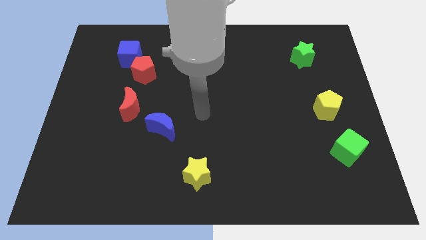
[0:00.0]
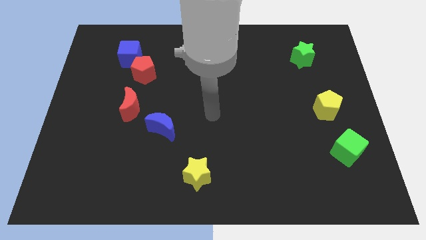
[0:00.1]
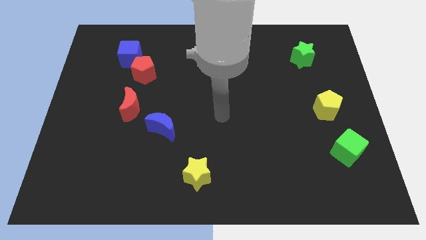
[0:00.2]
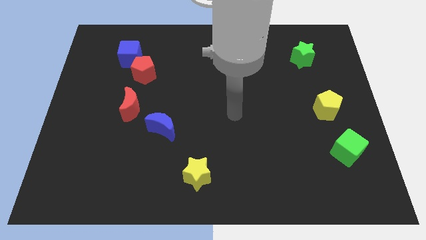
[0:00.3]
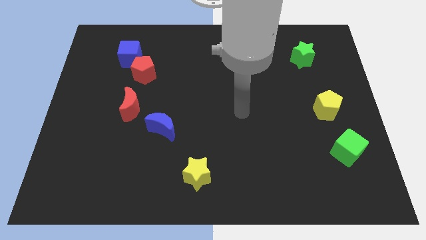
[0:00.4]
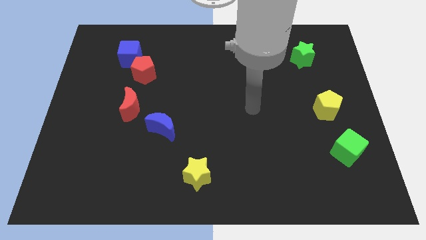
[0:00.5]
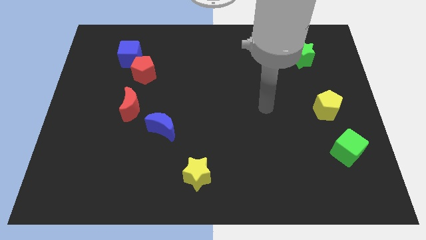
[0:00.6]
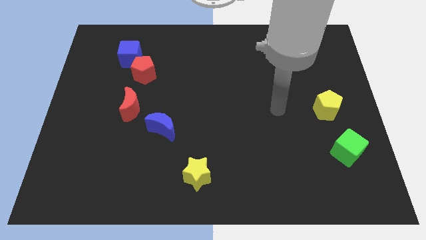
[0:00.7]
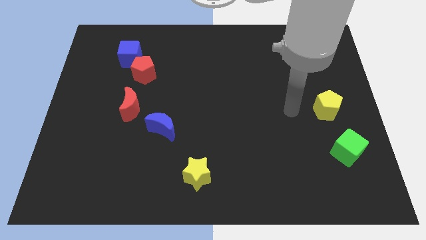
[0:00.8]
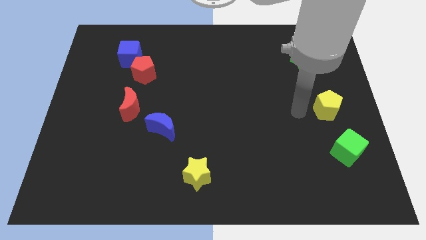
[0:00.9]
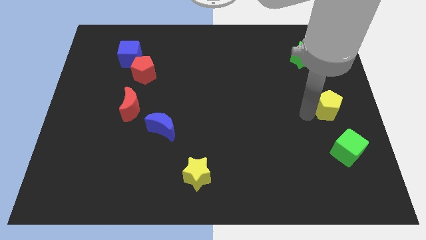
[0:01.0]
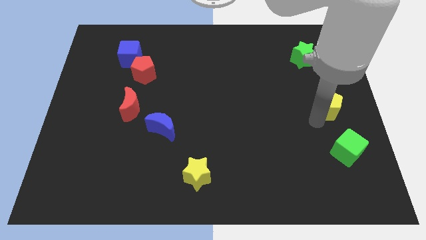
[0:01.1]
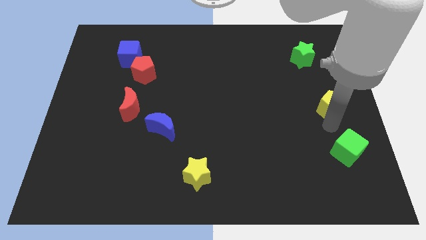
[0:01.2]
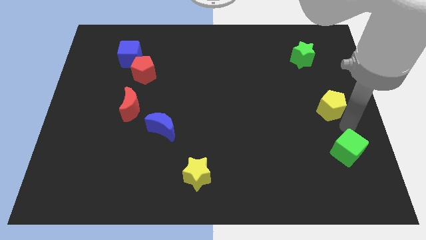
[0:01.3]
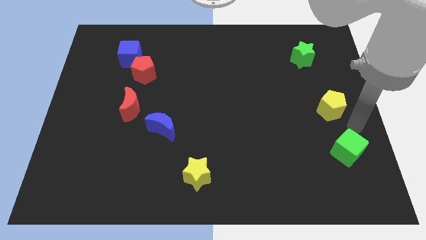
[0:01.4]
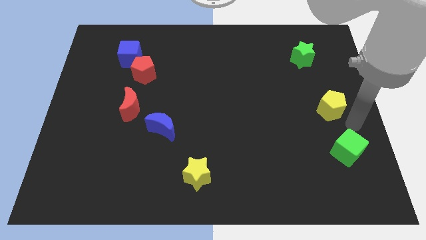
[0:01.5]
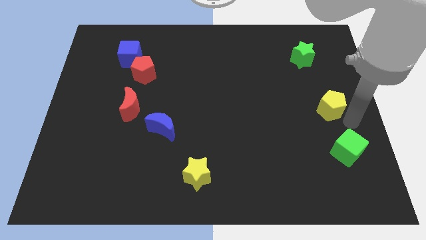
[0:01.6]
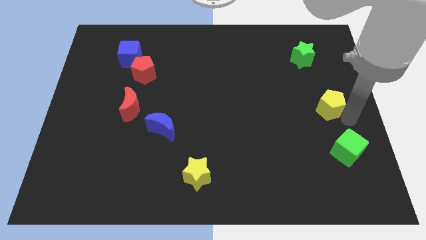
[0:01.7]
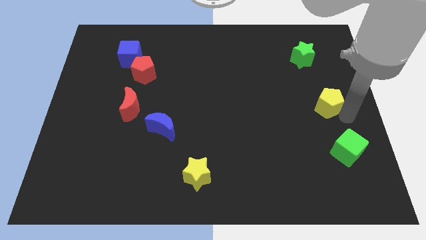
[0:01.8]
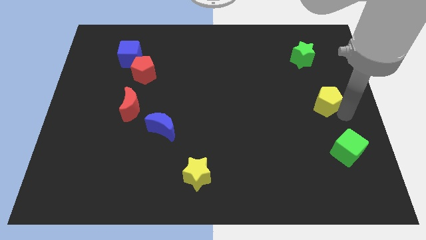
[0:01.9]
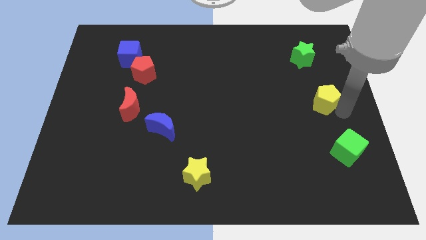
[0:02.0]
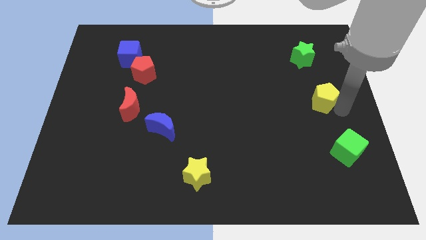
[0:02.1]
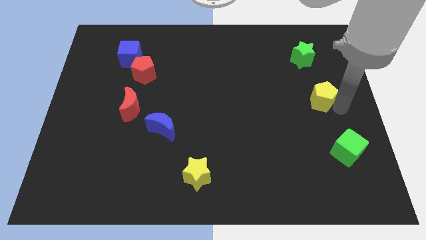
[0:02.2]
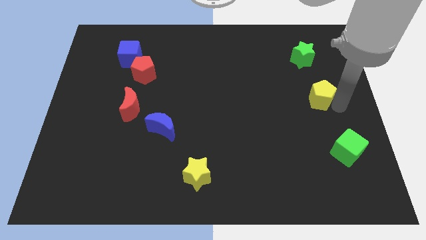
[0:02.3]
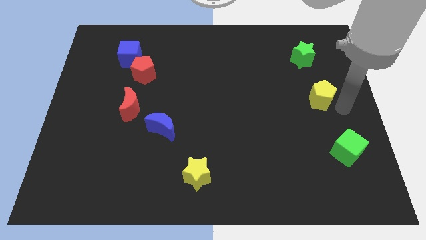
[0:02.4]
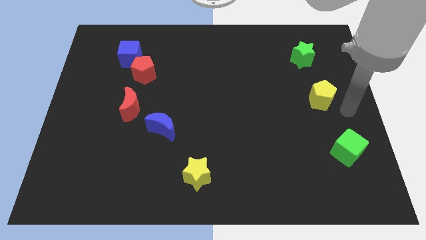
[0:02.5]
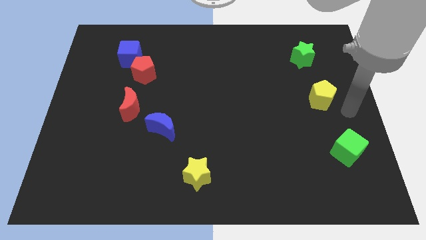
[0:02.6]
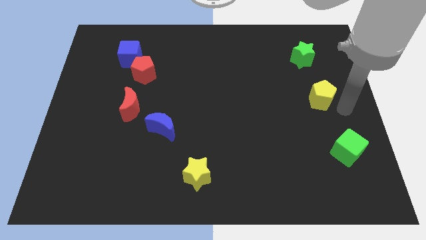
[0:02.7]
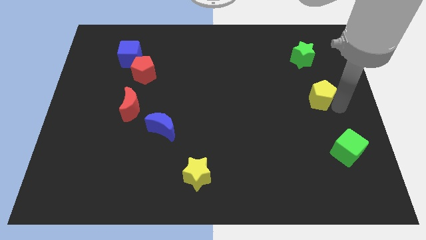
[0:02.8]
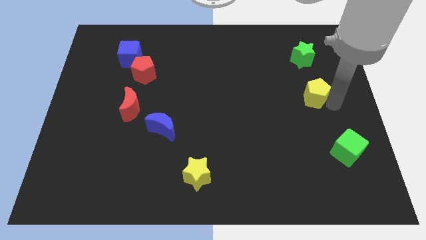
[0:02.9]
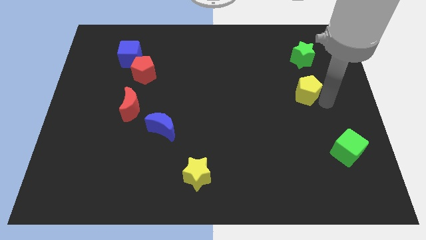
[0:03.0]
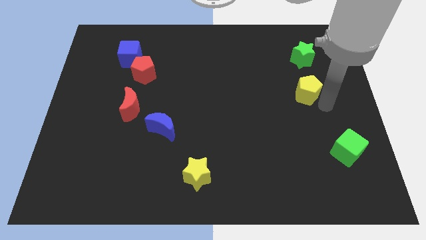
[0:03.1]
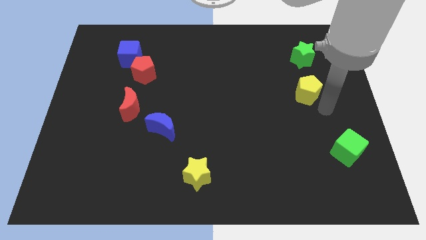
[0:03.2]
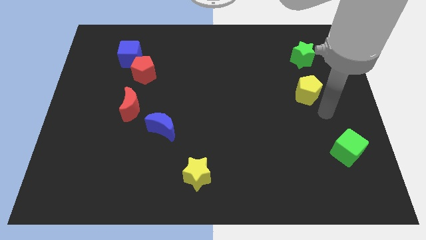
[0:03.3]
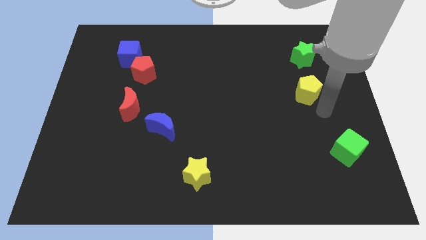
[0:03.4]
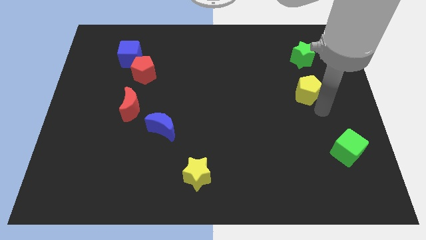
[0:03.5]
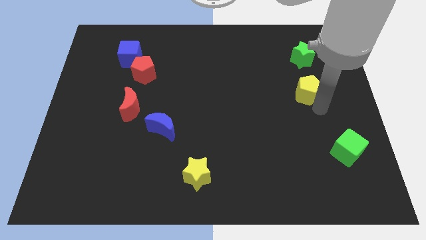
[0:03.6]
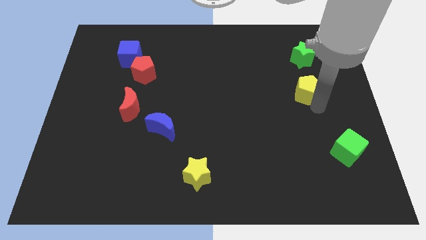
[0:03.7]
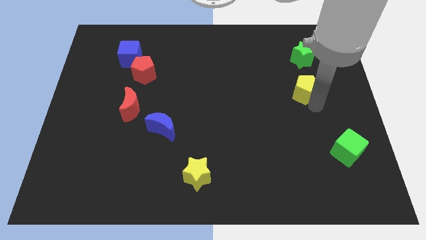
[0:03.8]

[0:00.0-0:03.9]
push the yellow pentagon up and to the left a little

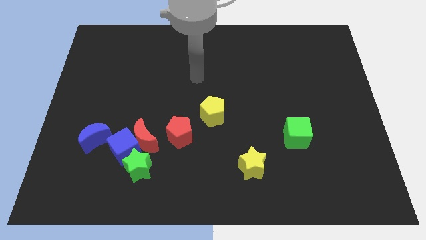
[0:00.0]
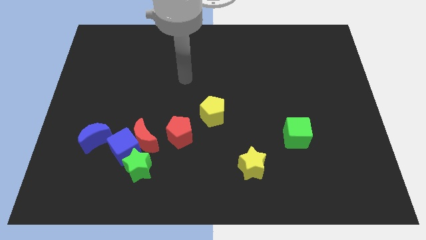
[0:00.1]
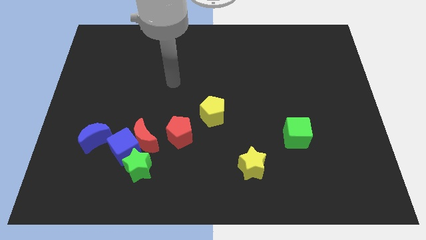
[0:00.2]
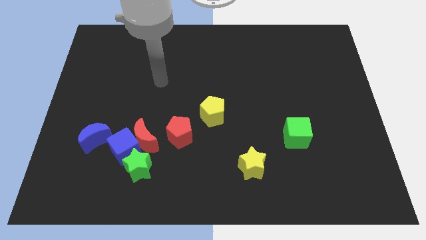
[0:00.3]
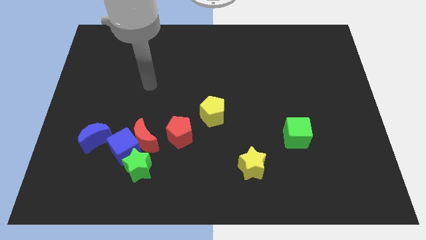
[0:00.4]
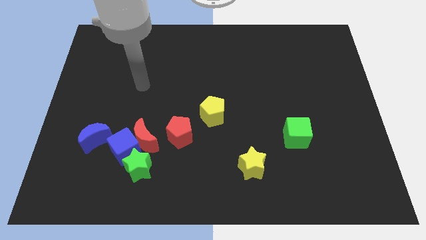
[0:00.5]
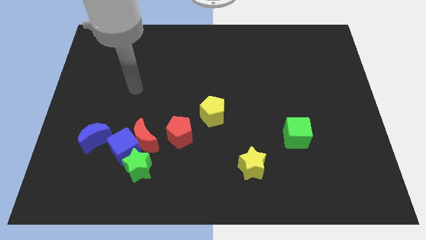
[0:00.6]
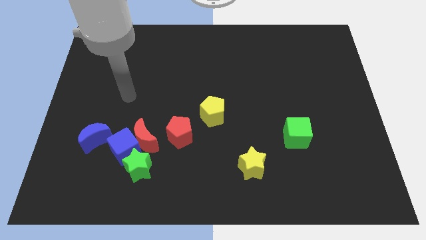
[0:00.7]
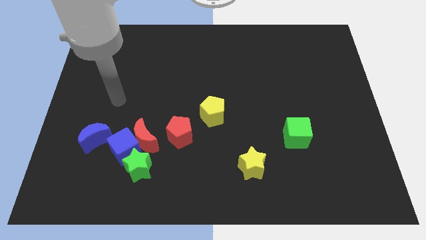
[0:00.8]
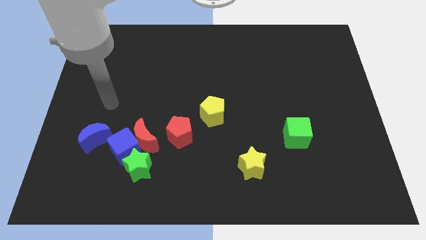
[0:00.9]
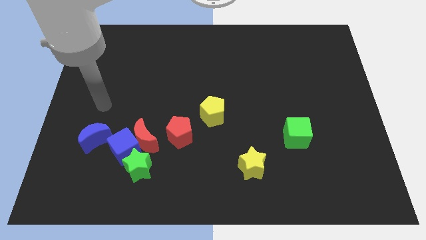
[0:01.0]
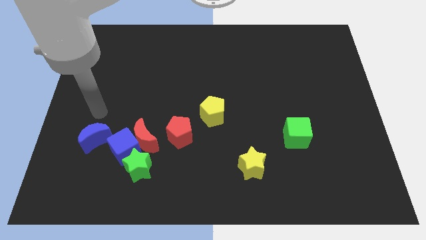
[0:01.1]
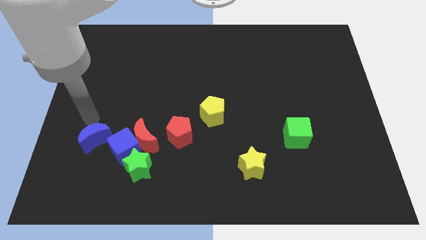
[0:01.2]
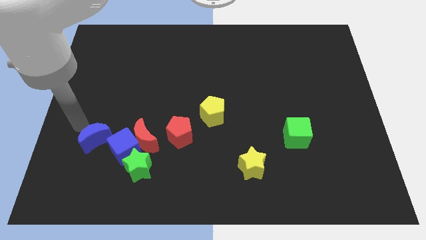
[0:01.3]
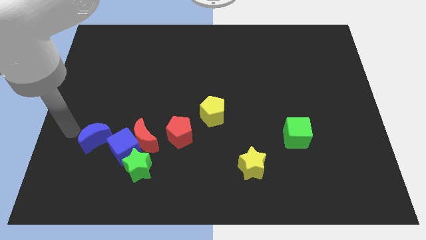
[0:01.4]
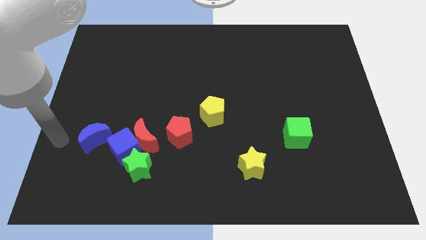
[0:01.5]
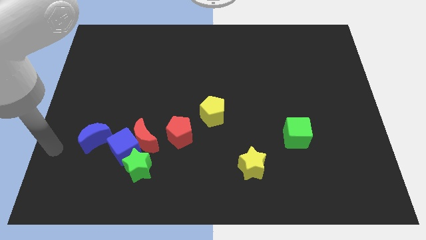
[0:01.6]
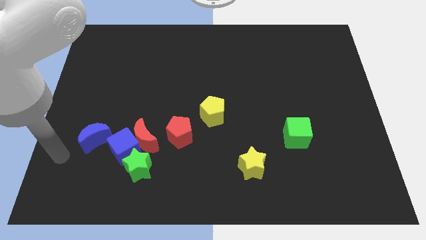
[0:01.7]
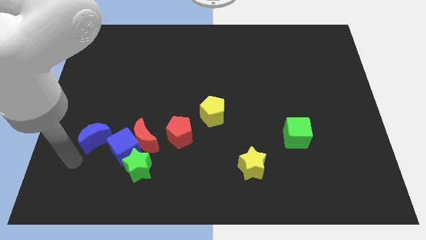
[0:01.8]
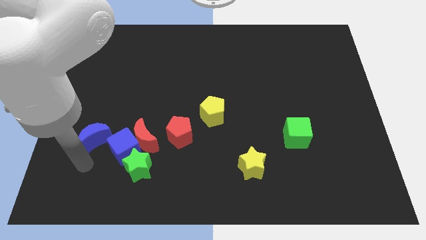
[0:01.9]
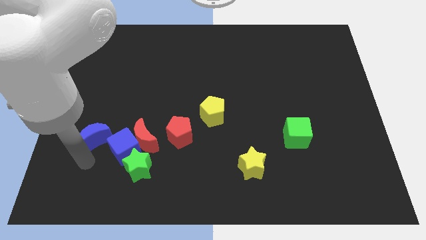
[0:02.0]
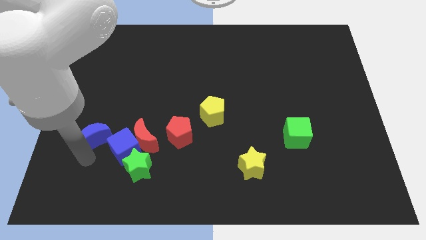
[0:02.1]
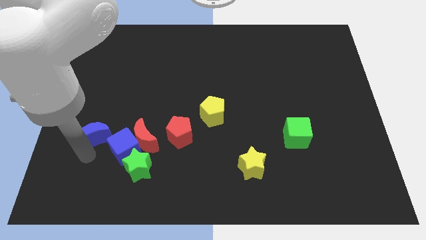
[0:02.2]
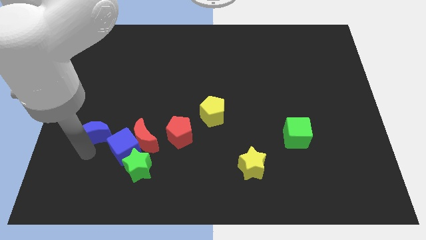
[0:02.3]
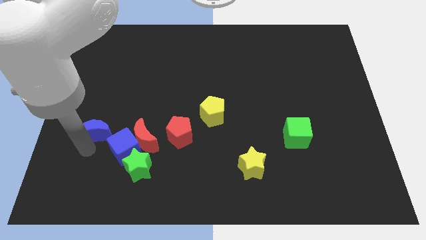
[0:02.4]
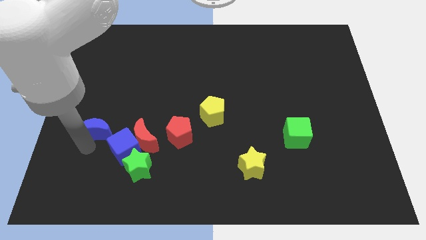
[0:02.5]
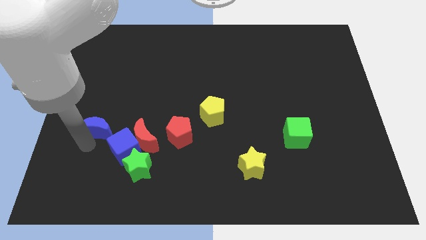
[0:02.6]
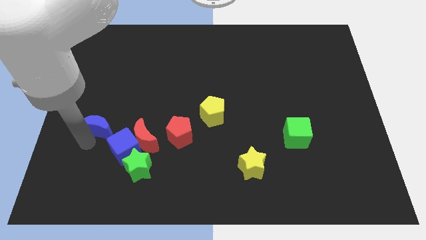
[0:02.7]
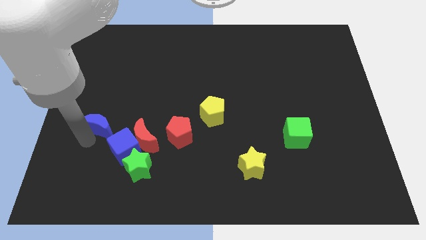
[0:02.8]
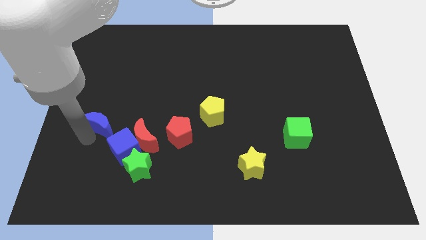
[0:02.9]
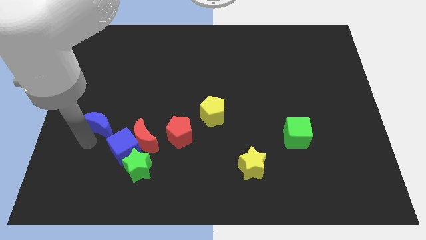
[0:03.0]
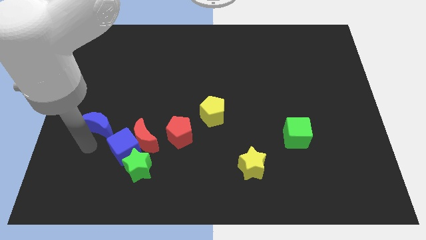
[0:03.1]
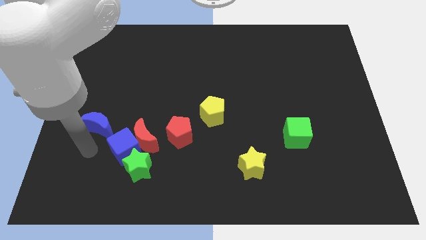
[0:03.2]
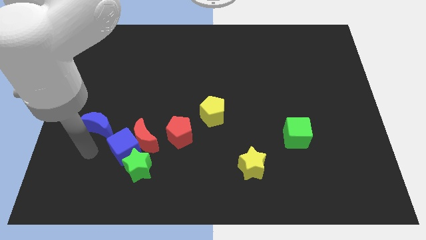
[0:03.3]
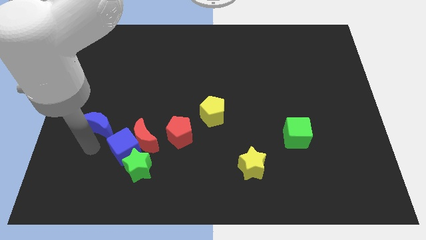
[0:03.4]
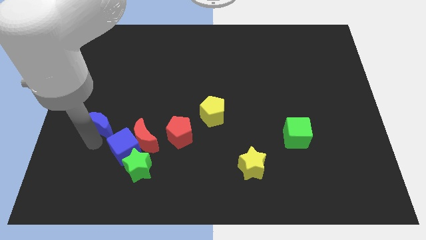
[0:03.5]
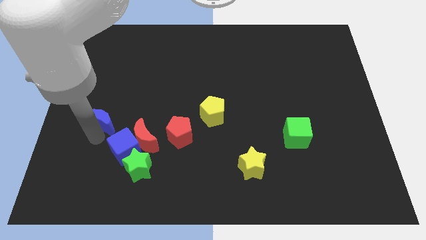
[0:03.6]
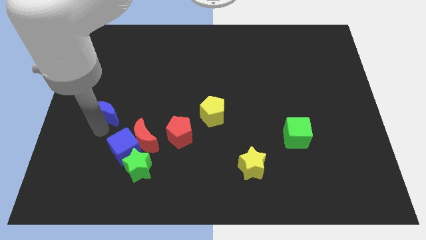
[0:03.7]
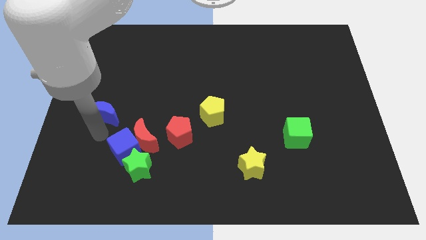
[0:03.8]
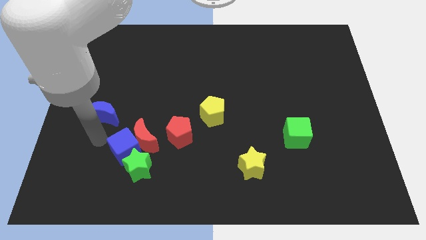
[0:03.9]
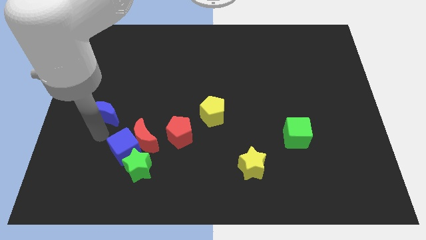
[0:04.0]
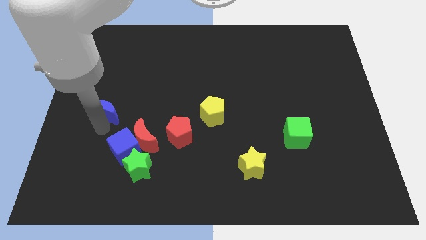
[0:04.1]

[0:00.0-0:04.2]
move the blue moon upwards a bit
